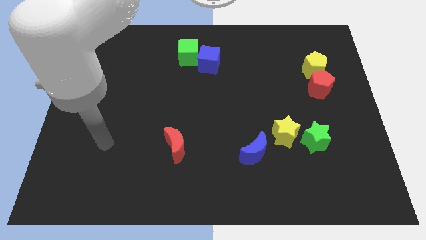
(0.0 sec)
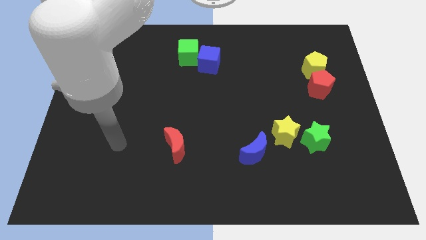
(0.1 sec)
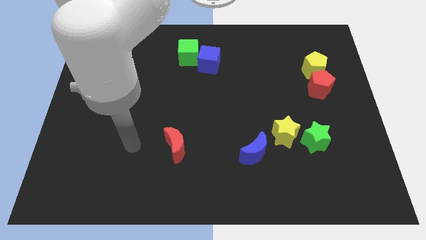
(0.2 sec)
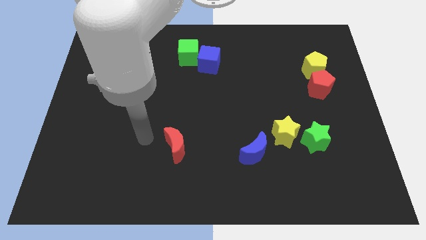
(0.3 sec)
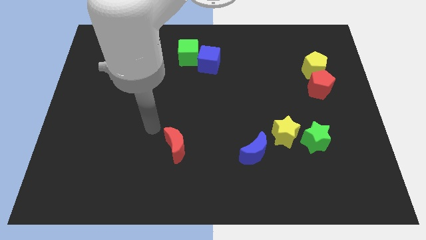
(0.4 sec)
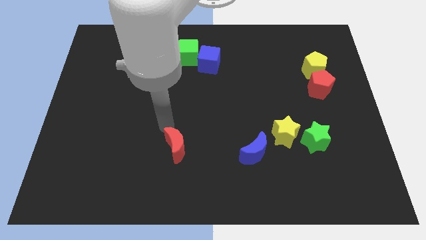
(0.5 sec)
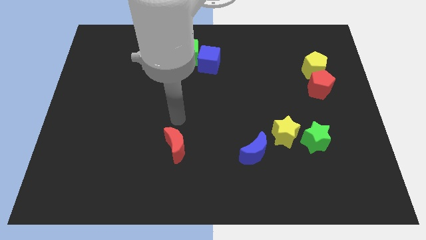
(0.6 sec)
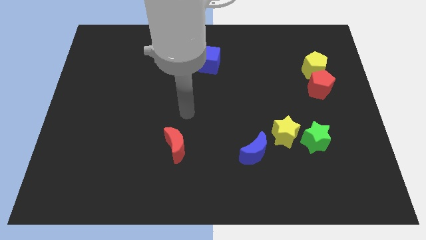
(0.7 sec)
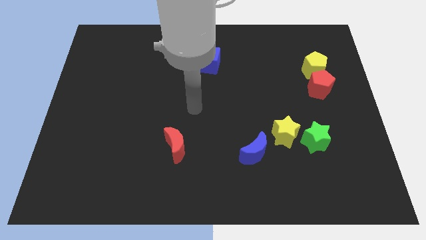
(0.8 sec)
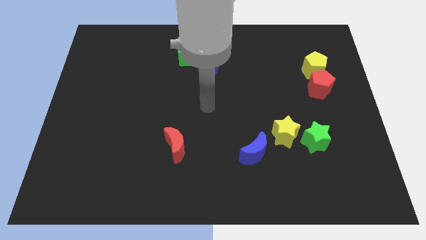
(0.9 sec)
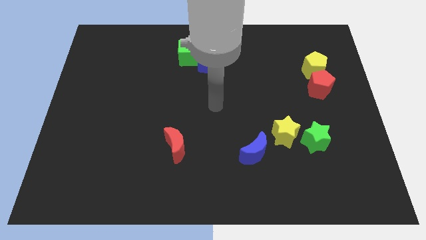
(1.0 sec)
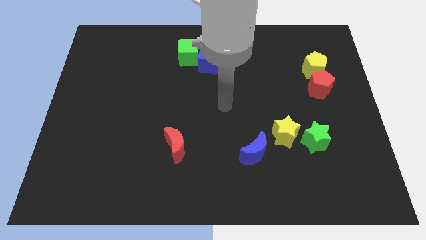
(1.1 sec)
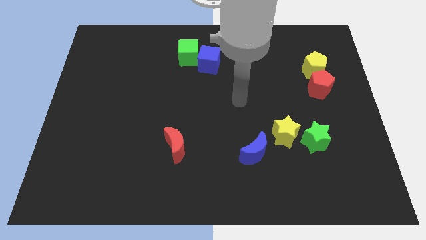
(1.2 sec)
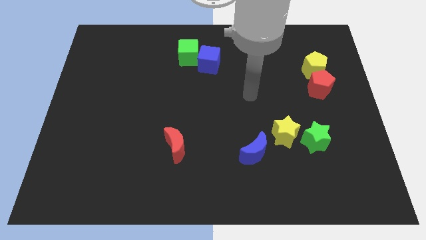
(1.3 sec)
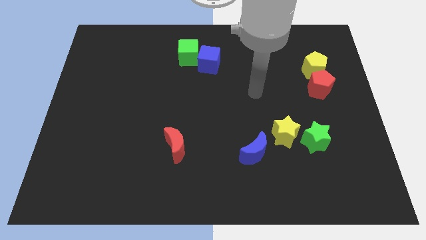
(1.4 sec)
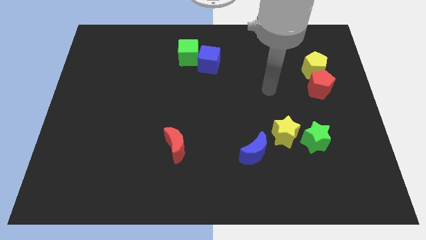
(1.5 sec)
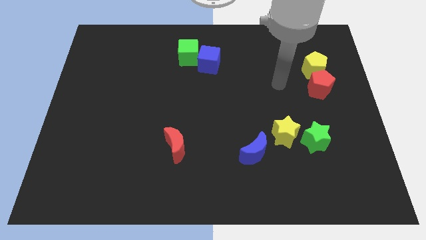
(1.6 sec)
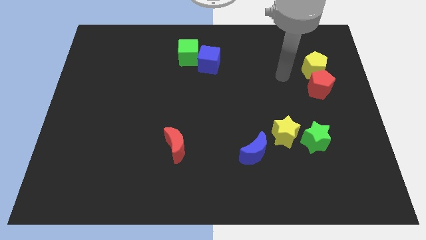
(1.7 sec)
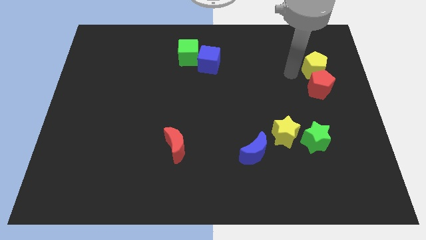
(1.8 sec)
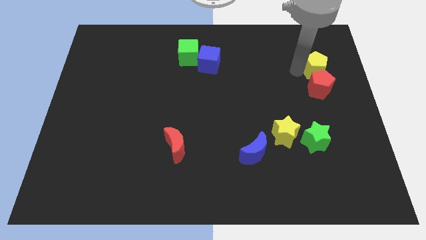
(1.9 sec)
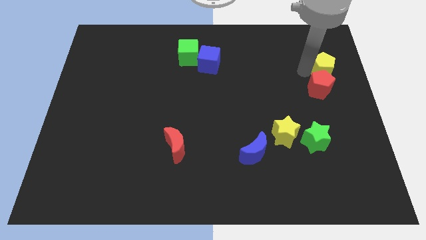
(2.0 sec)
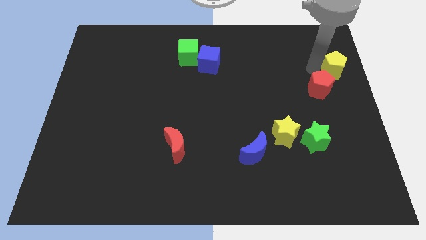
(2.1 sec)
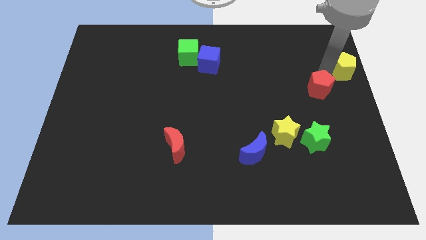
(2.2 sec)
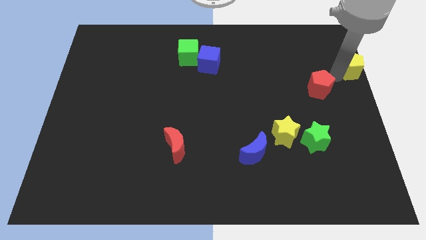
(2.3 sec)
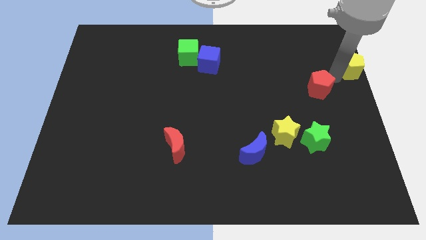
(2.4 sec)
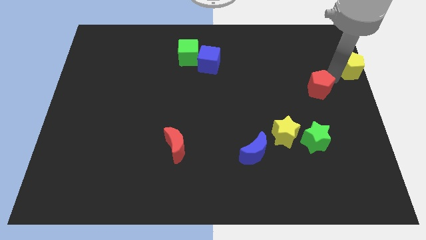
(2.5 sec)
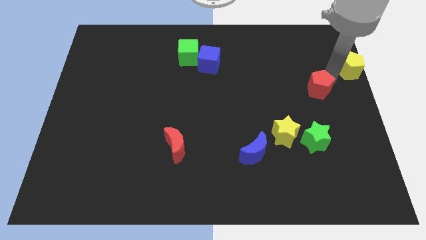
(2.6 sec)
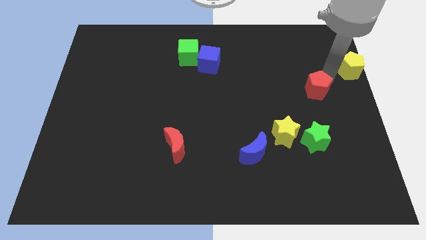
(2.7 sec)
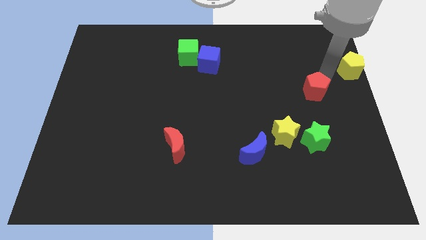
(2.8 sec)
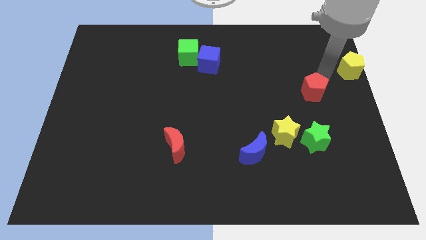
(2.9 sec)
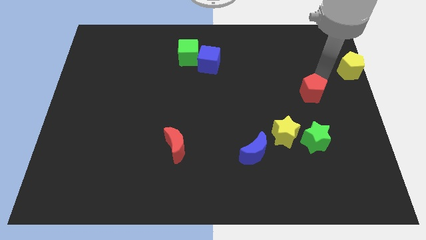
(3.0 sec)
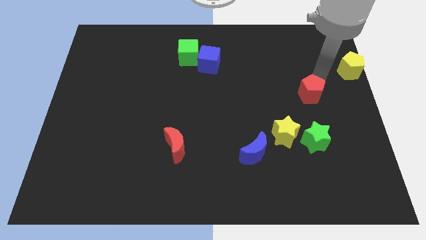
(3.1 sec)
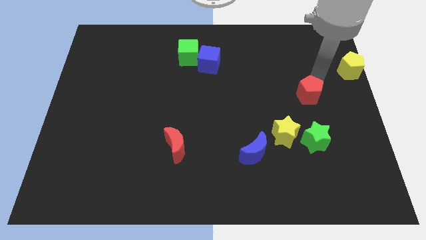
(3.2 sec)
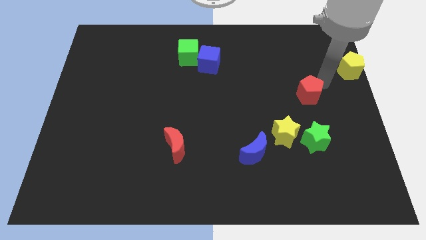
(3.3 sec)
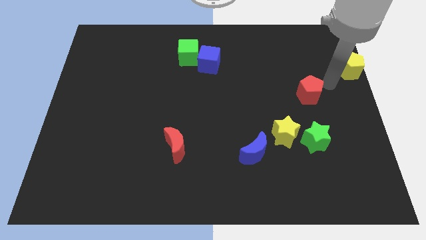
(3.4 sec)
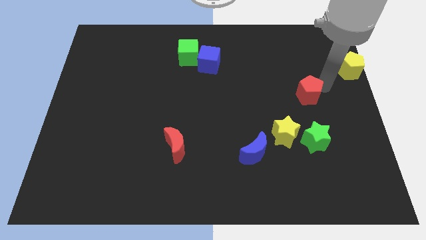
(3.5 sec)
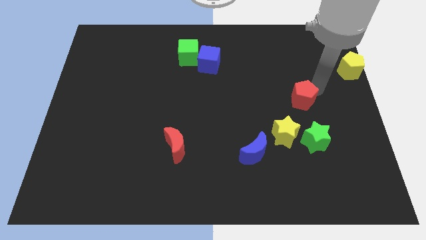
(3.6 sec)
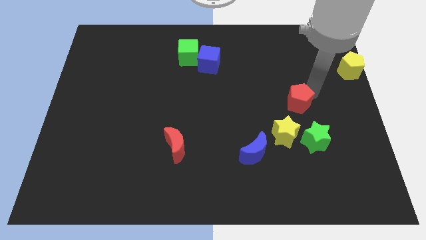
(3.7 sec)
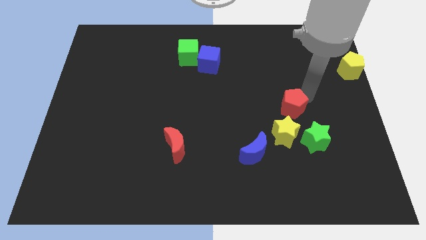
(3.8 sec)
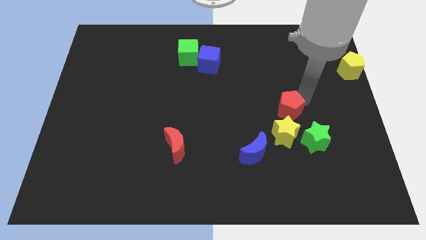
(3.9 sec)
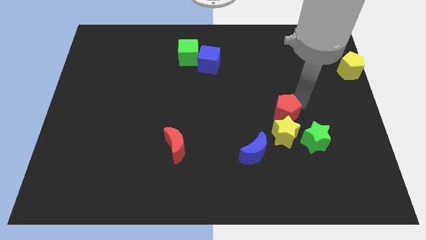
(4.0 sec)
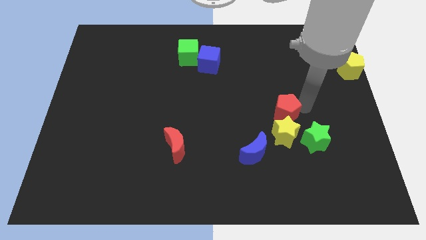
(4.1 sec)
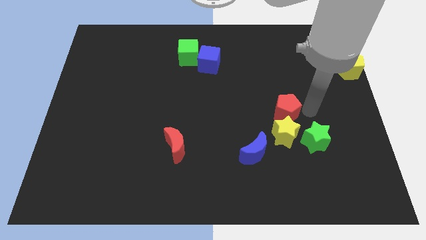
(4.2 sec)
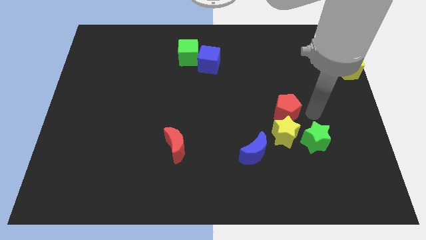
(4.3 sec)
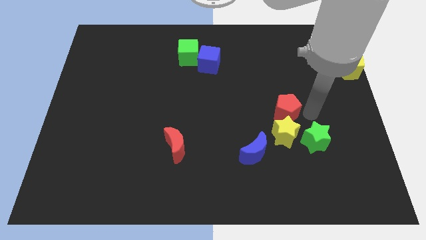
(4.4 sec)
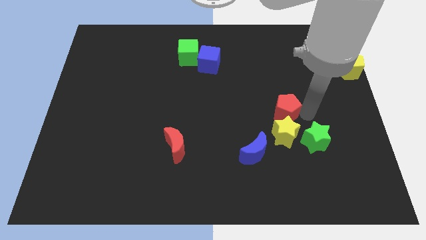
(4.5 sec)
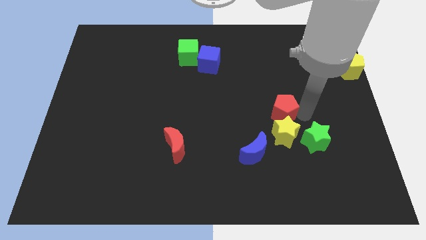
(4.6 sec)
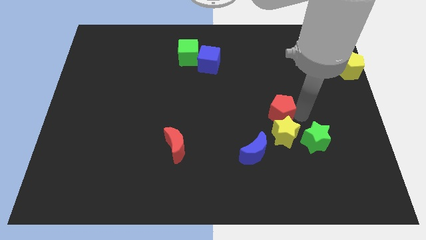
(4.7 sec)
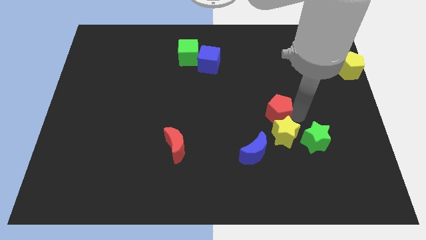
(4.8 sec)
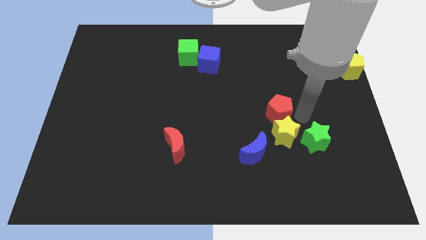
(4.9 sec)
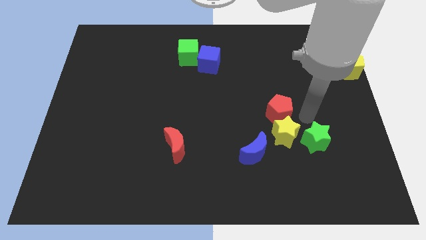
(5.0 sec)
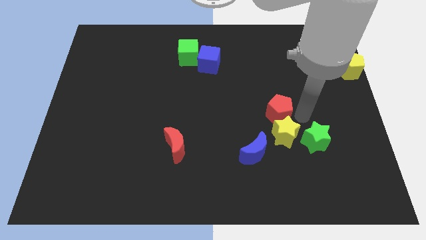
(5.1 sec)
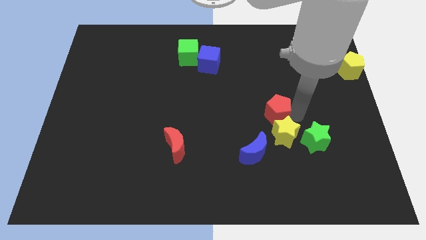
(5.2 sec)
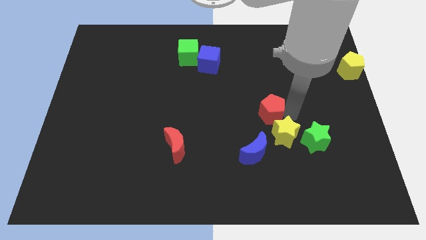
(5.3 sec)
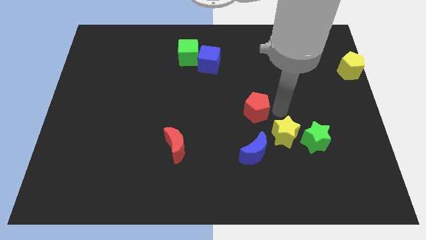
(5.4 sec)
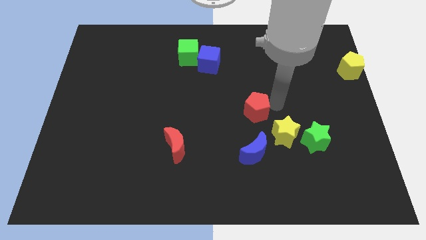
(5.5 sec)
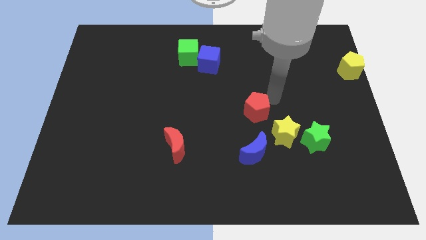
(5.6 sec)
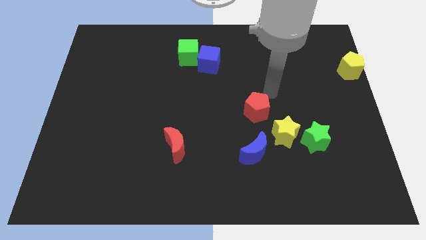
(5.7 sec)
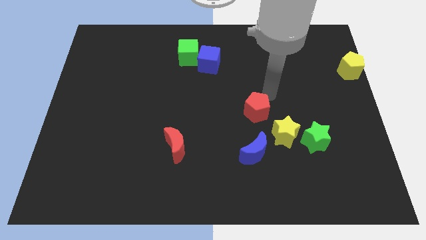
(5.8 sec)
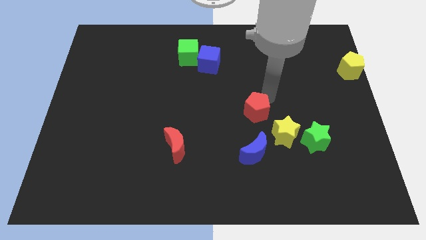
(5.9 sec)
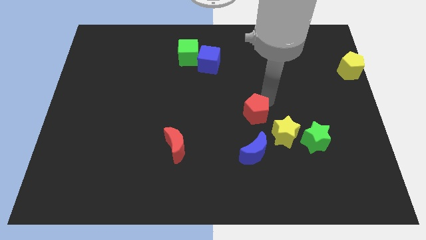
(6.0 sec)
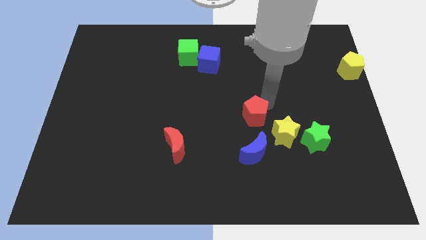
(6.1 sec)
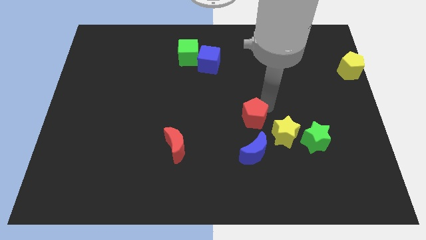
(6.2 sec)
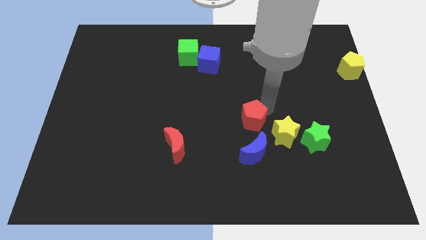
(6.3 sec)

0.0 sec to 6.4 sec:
push the red pentagon to the left of the yellow star
